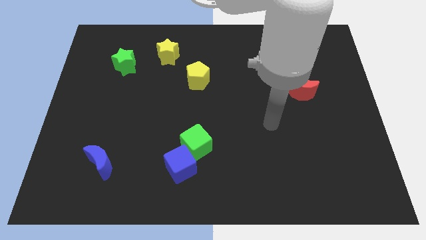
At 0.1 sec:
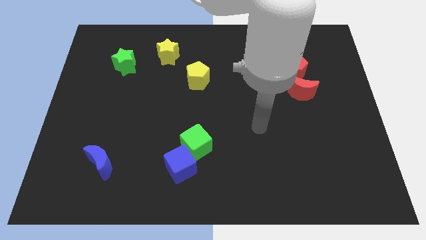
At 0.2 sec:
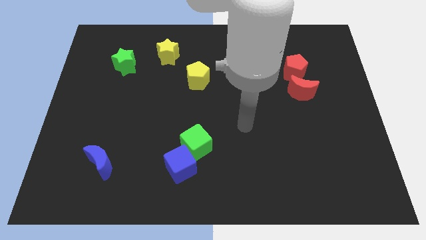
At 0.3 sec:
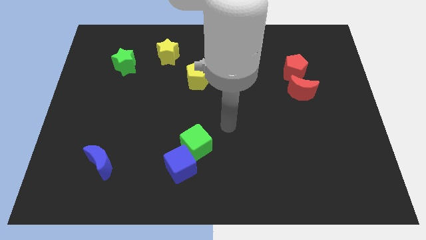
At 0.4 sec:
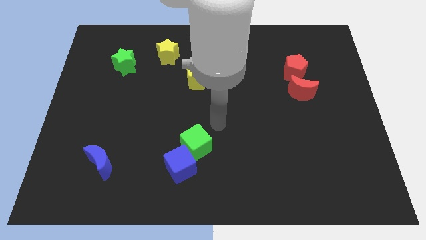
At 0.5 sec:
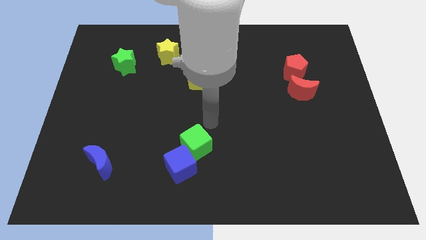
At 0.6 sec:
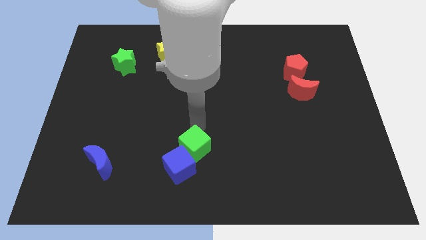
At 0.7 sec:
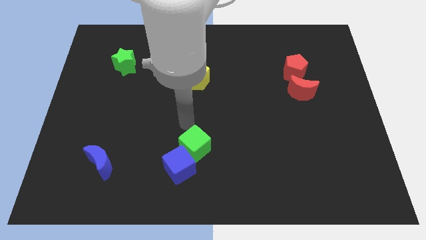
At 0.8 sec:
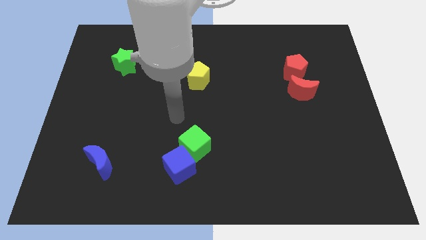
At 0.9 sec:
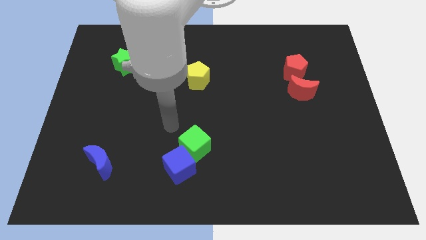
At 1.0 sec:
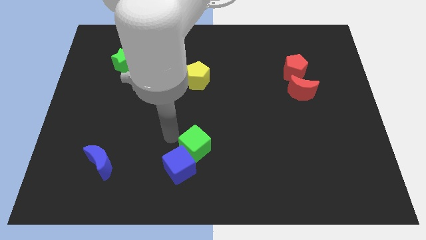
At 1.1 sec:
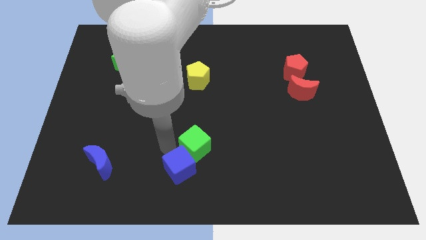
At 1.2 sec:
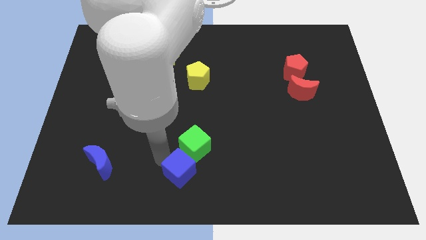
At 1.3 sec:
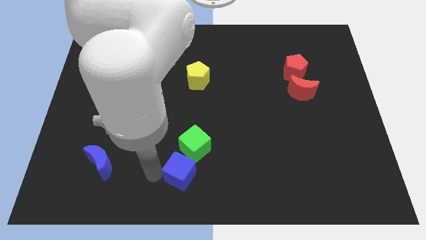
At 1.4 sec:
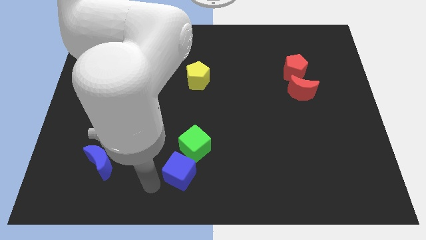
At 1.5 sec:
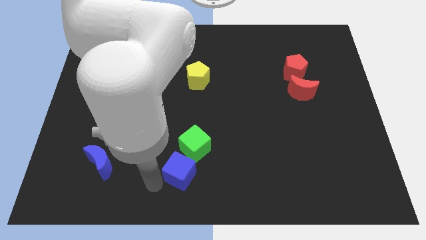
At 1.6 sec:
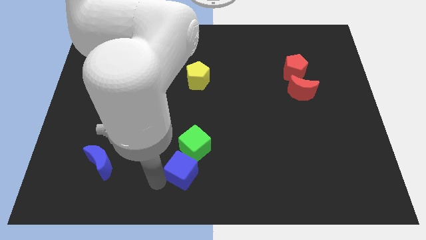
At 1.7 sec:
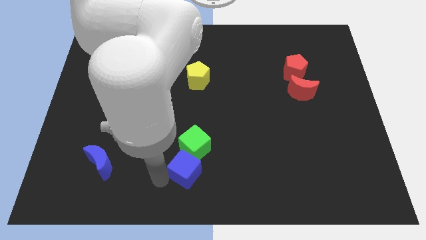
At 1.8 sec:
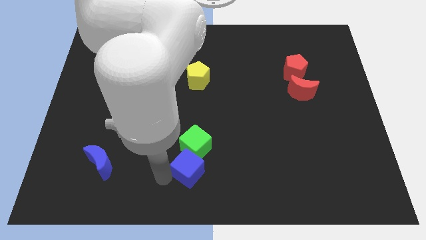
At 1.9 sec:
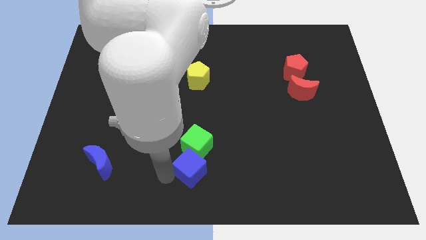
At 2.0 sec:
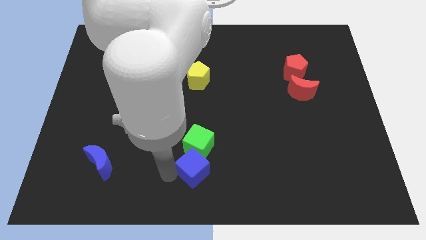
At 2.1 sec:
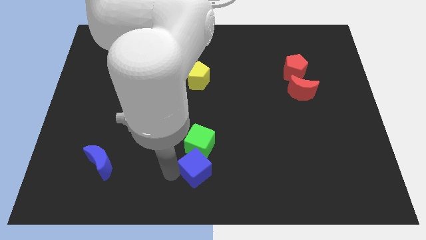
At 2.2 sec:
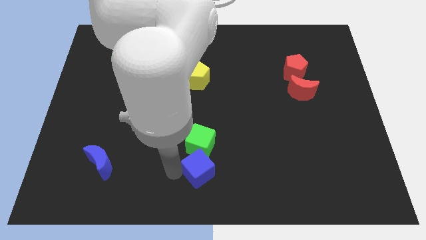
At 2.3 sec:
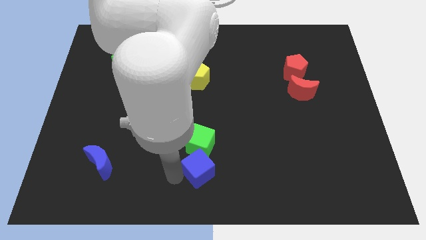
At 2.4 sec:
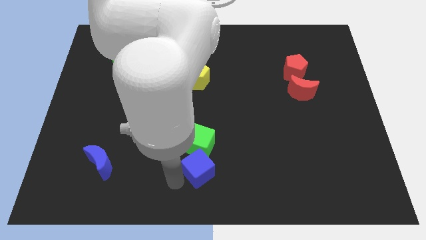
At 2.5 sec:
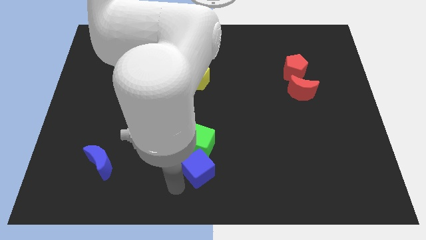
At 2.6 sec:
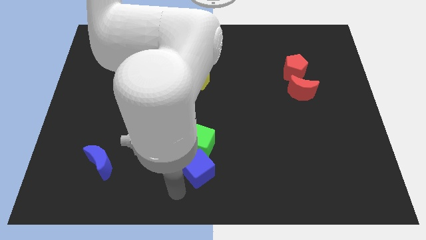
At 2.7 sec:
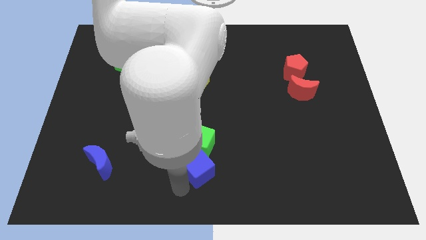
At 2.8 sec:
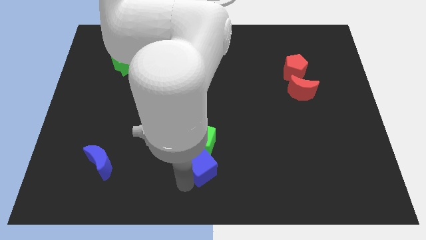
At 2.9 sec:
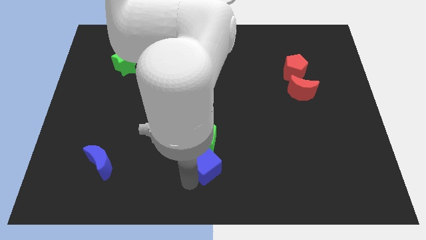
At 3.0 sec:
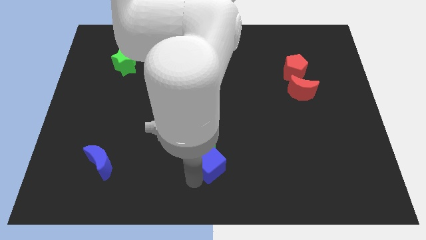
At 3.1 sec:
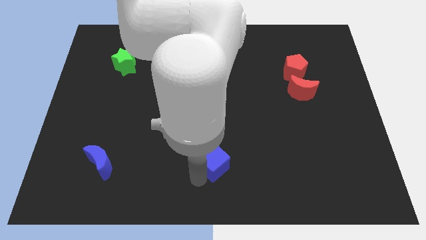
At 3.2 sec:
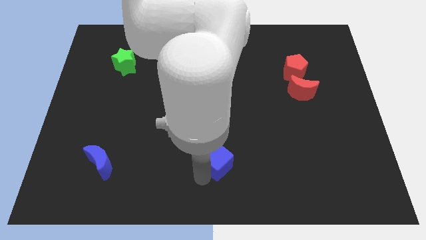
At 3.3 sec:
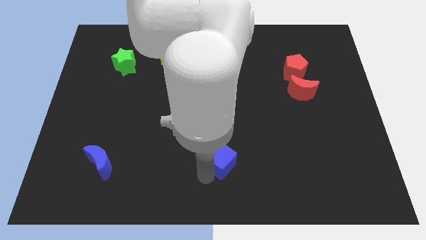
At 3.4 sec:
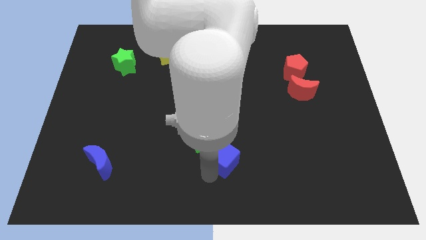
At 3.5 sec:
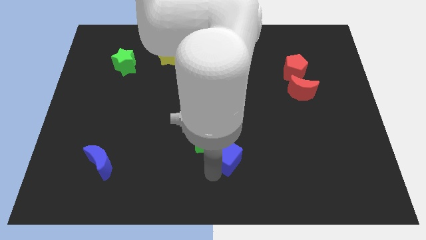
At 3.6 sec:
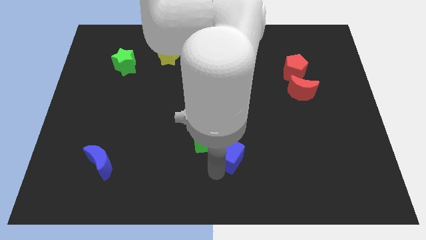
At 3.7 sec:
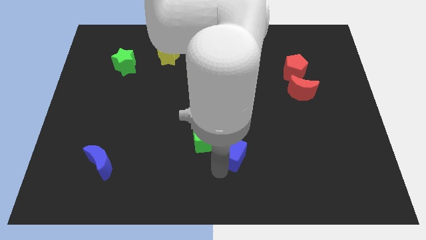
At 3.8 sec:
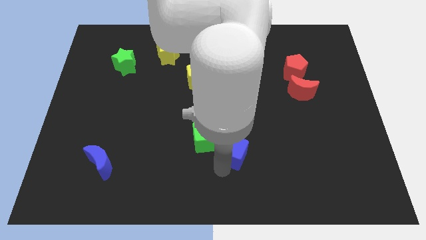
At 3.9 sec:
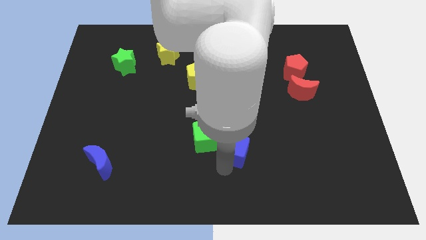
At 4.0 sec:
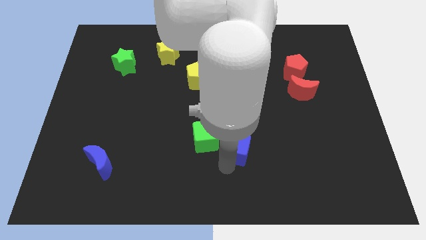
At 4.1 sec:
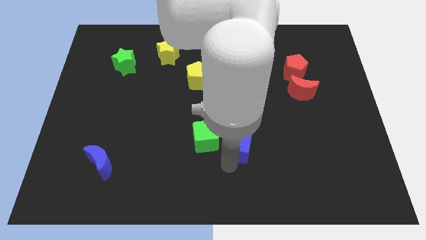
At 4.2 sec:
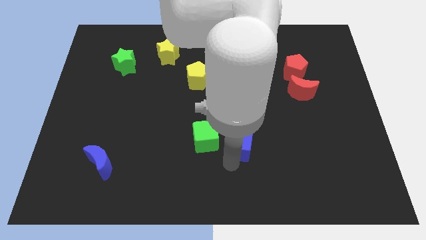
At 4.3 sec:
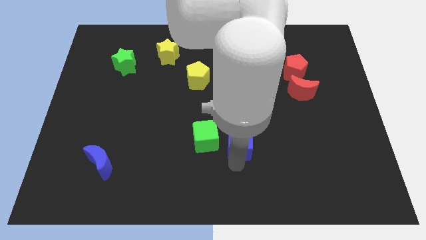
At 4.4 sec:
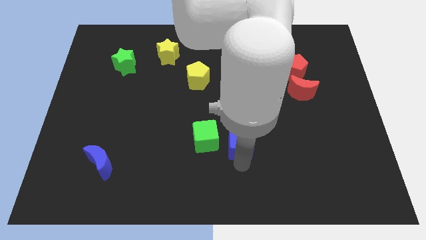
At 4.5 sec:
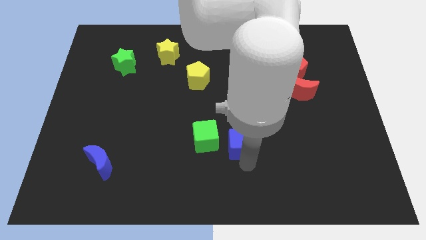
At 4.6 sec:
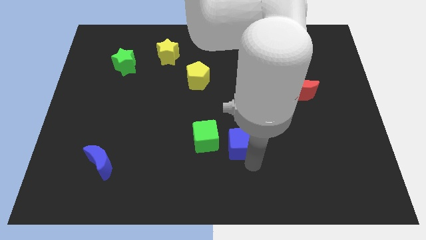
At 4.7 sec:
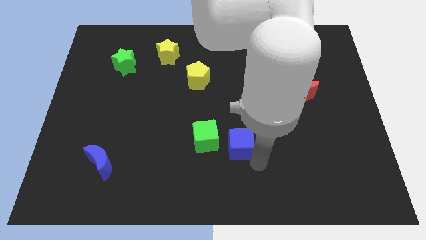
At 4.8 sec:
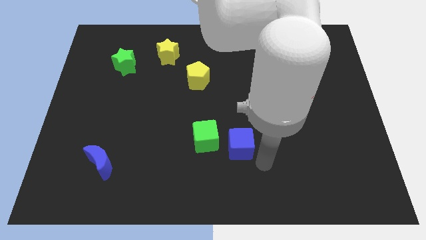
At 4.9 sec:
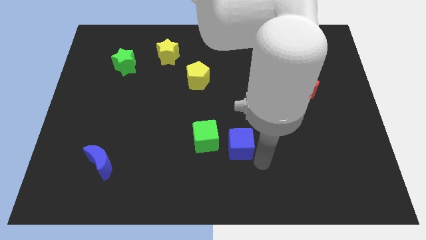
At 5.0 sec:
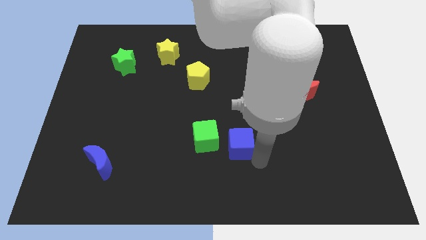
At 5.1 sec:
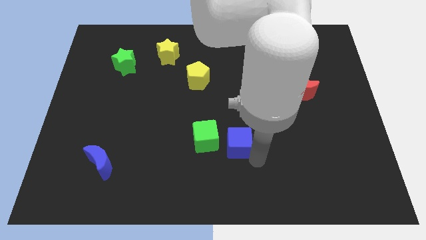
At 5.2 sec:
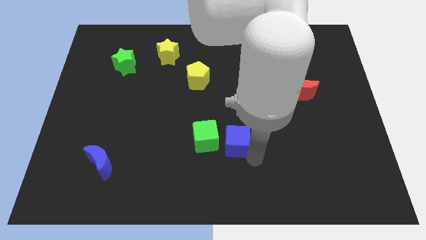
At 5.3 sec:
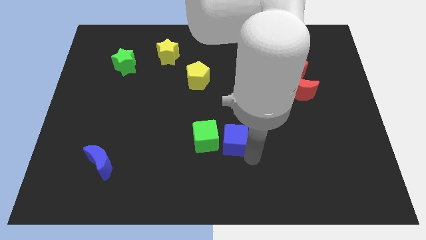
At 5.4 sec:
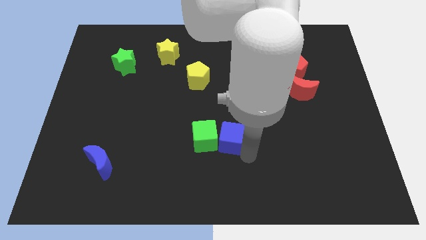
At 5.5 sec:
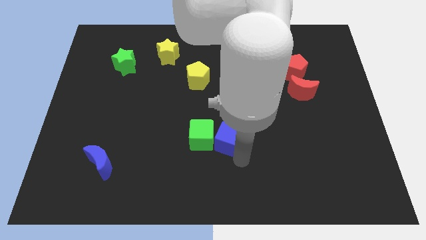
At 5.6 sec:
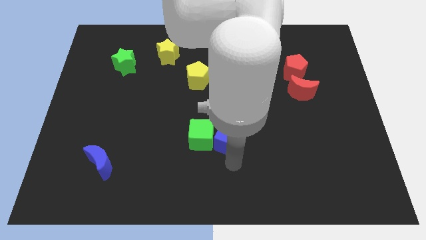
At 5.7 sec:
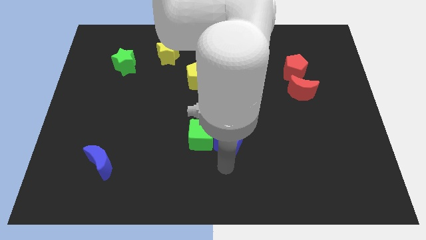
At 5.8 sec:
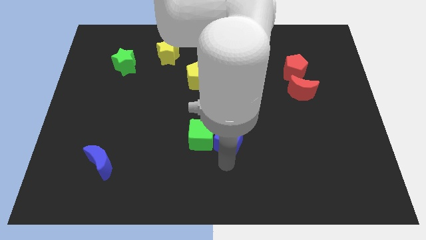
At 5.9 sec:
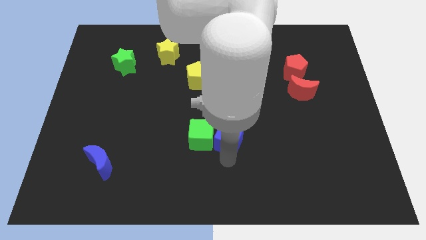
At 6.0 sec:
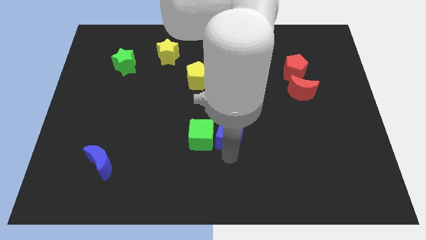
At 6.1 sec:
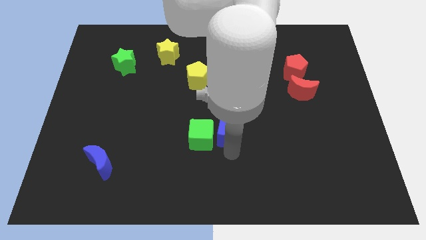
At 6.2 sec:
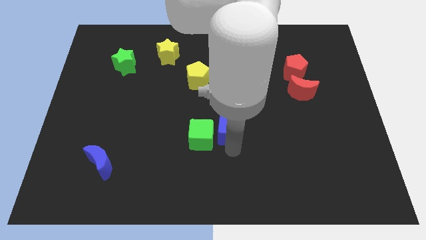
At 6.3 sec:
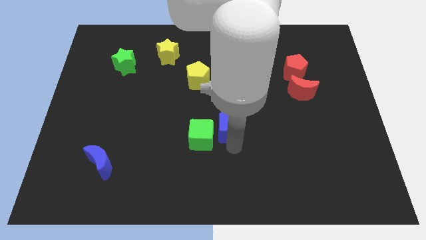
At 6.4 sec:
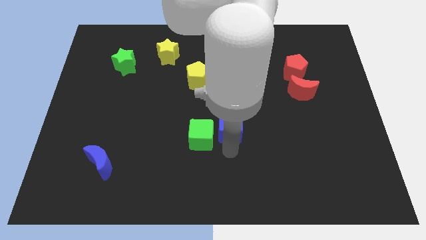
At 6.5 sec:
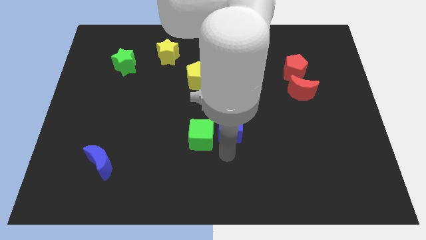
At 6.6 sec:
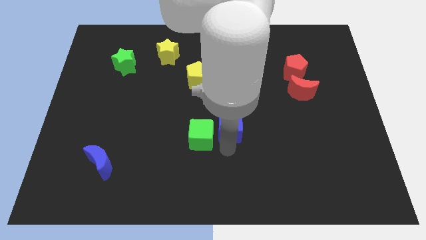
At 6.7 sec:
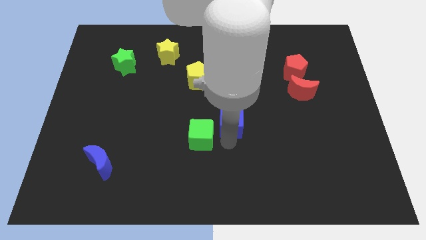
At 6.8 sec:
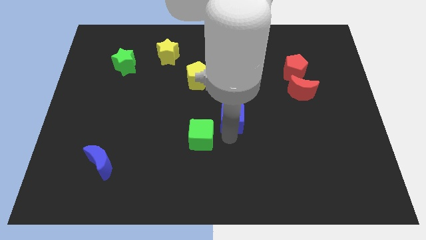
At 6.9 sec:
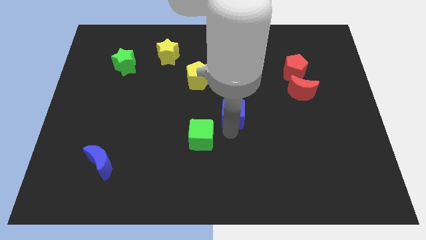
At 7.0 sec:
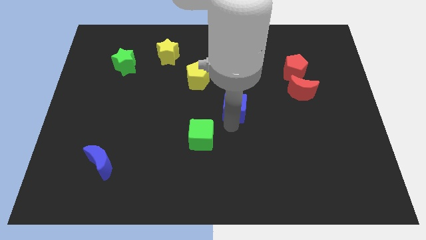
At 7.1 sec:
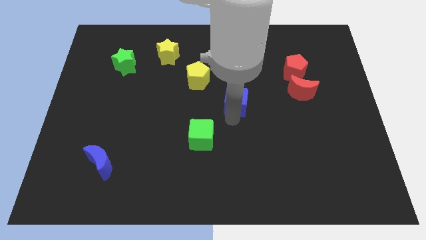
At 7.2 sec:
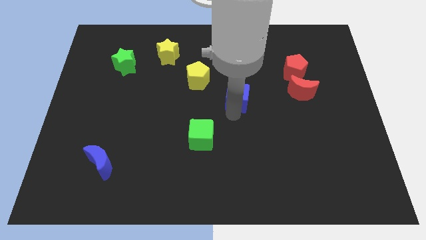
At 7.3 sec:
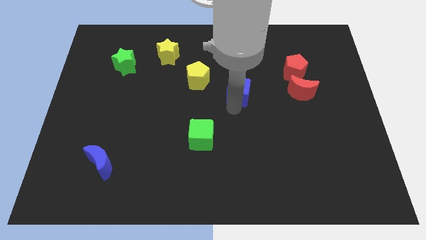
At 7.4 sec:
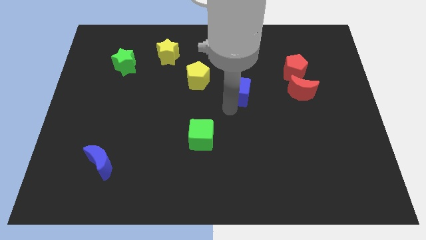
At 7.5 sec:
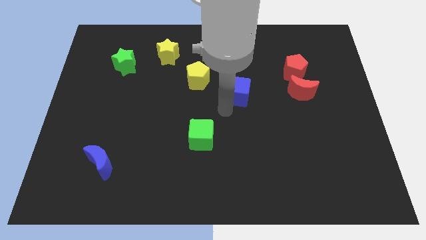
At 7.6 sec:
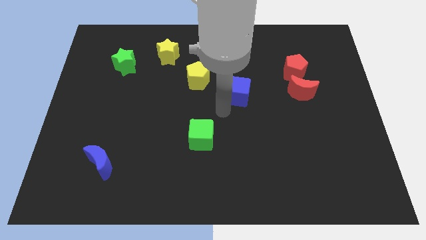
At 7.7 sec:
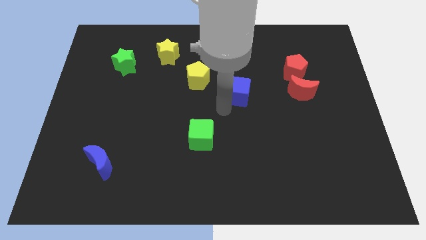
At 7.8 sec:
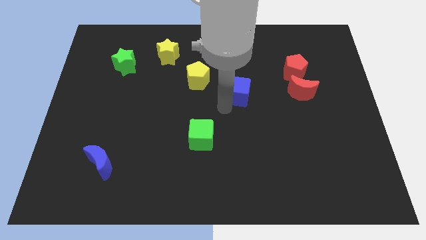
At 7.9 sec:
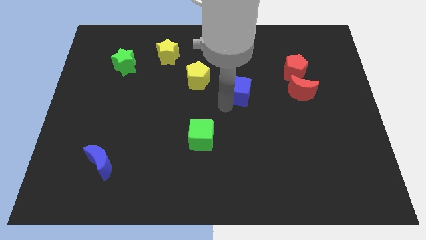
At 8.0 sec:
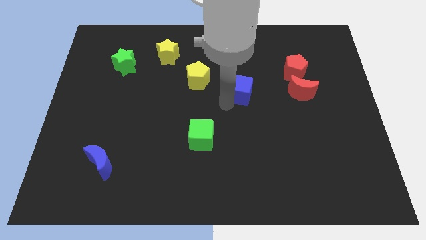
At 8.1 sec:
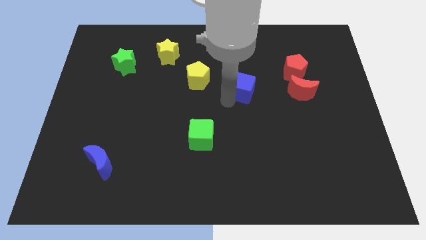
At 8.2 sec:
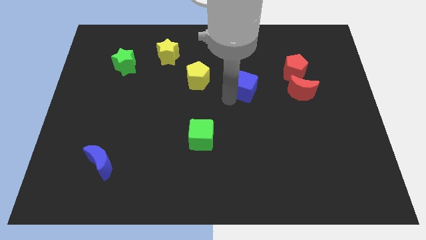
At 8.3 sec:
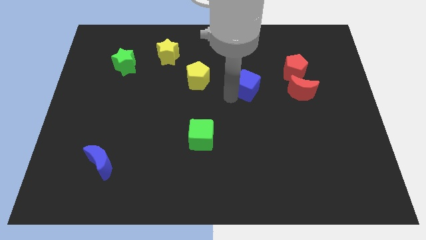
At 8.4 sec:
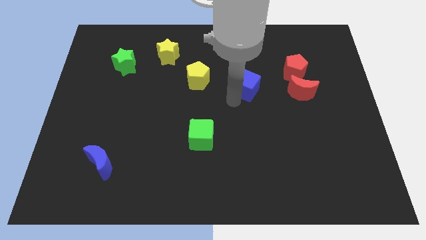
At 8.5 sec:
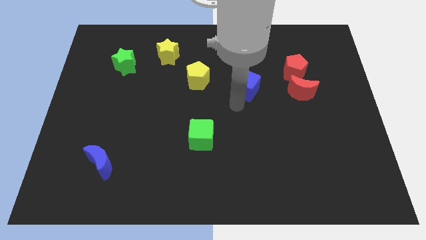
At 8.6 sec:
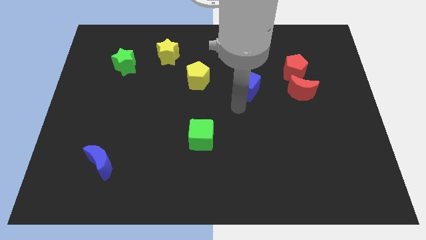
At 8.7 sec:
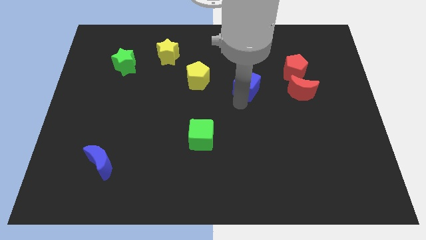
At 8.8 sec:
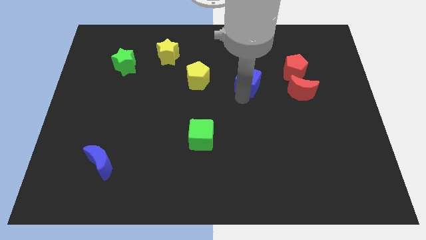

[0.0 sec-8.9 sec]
push the blue cube to the left side of the red pentagon
